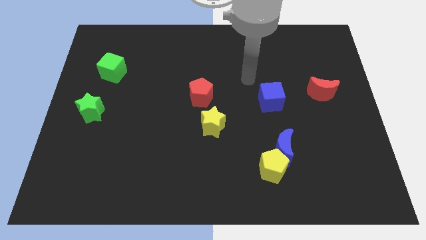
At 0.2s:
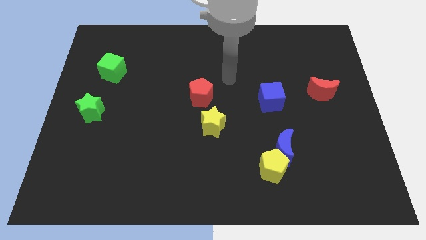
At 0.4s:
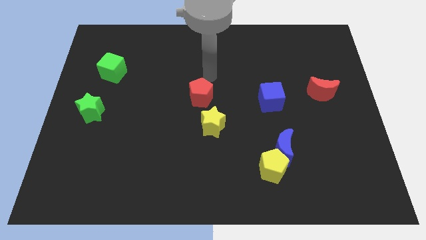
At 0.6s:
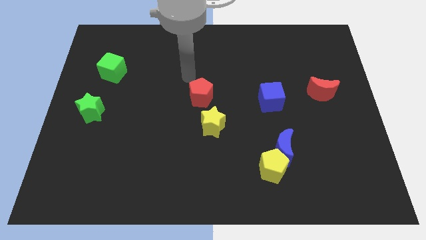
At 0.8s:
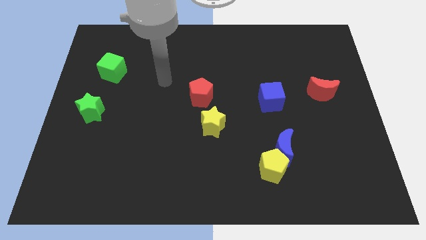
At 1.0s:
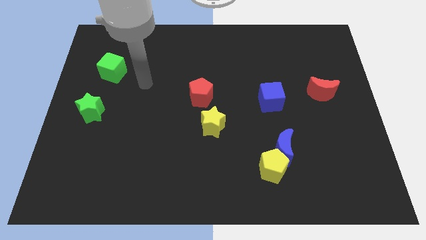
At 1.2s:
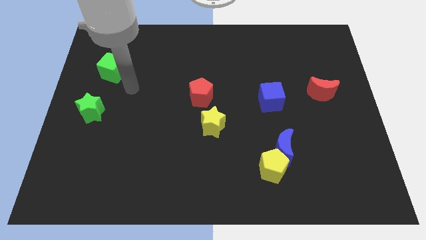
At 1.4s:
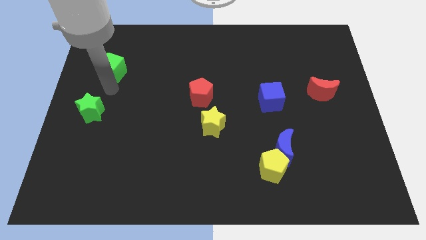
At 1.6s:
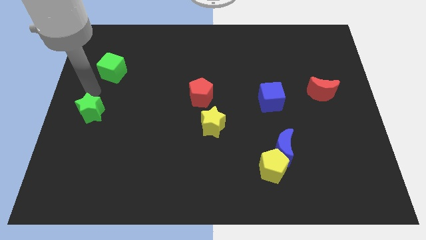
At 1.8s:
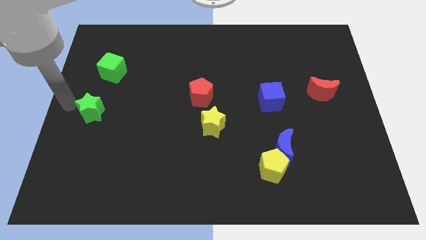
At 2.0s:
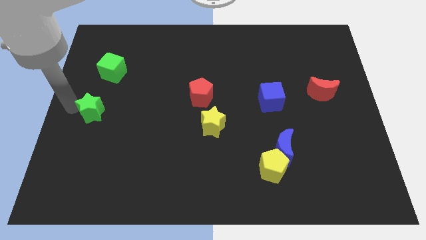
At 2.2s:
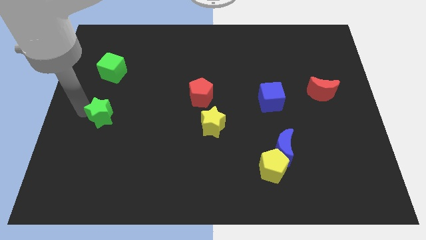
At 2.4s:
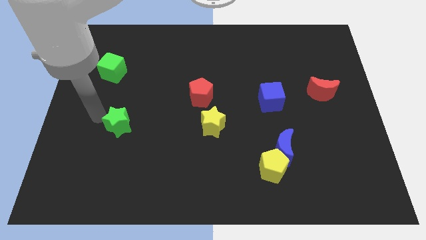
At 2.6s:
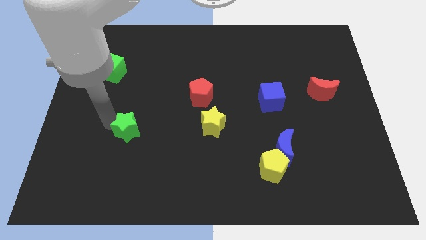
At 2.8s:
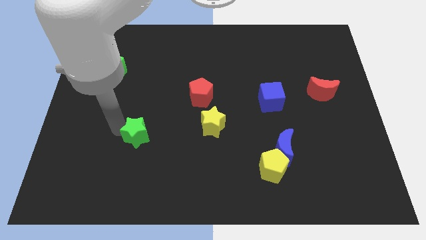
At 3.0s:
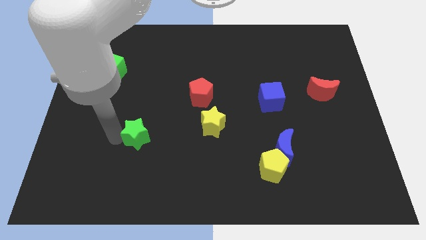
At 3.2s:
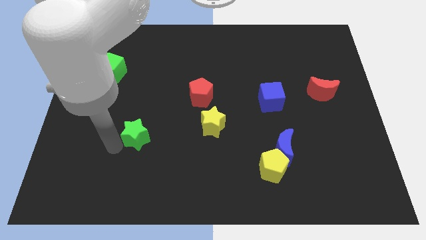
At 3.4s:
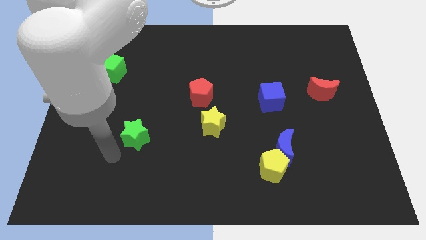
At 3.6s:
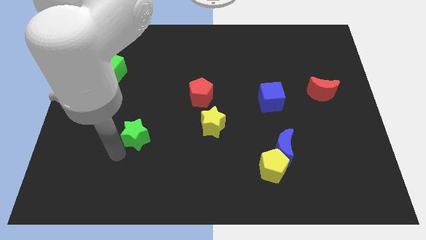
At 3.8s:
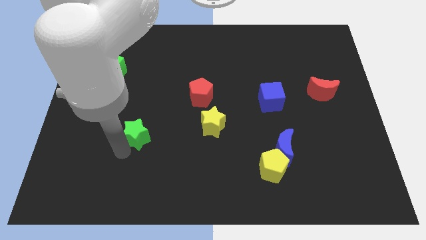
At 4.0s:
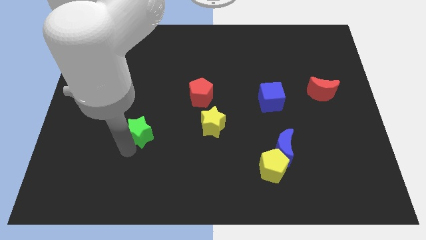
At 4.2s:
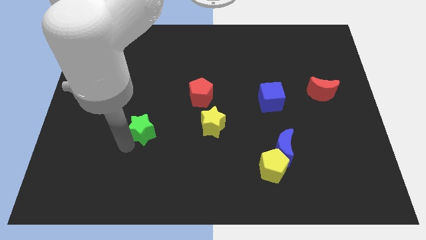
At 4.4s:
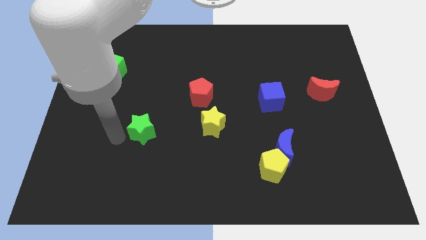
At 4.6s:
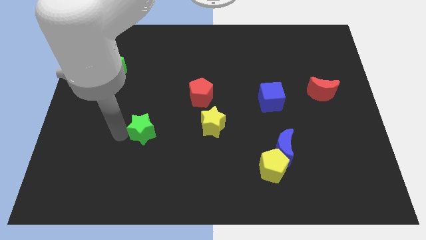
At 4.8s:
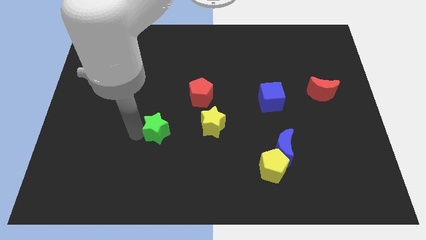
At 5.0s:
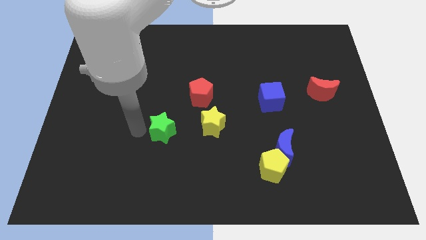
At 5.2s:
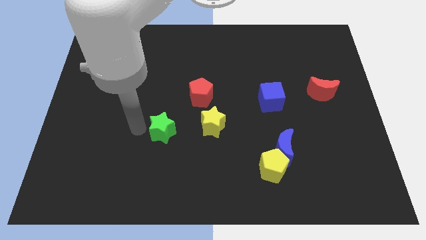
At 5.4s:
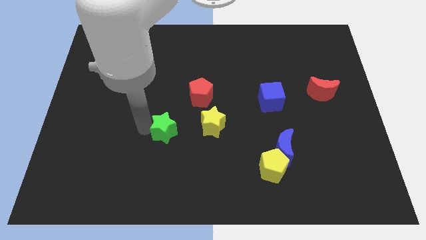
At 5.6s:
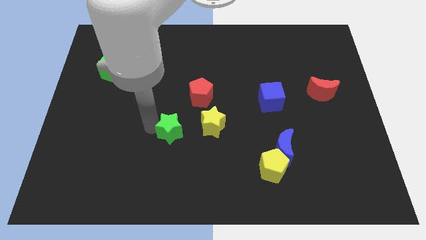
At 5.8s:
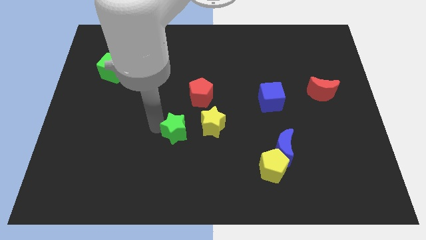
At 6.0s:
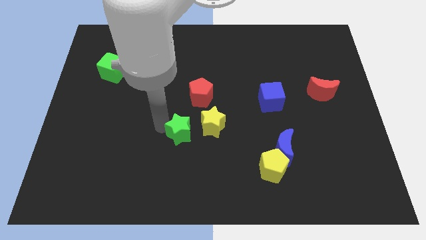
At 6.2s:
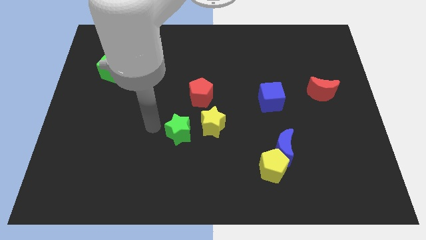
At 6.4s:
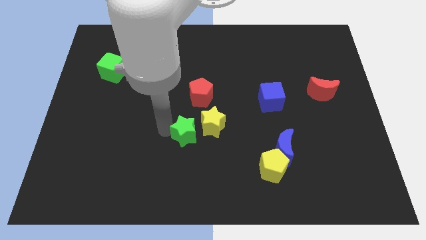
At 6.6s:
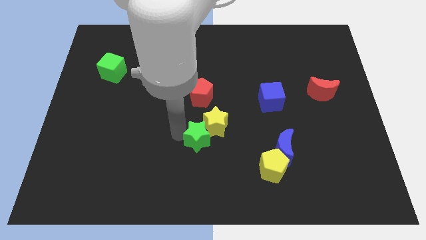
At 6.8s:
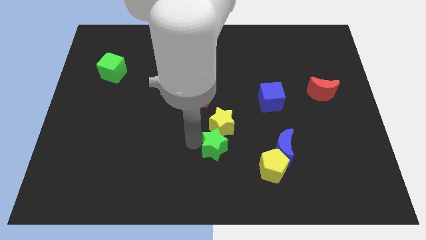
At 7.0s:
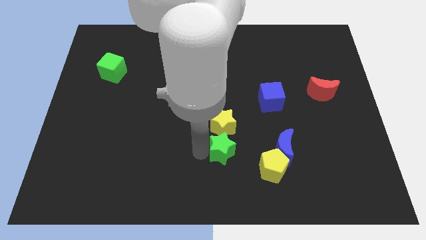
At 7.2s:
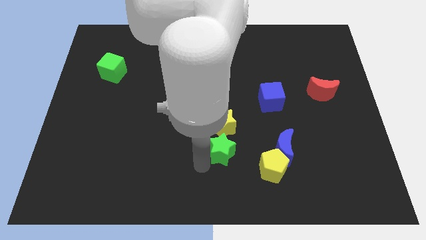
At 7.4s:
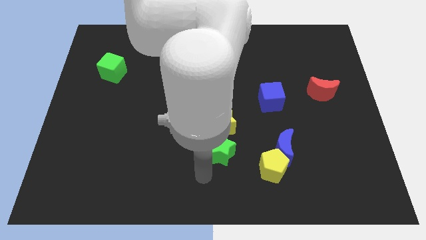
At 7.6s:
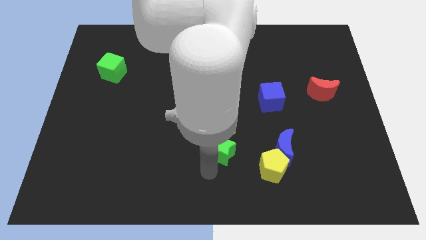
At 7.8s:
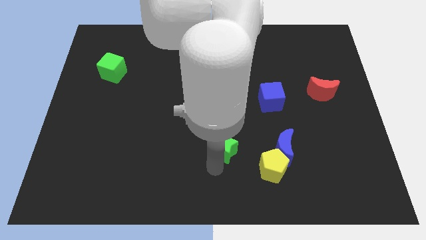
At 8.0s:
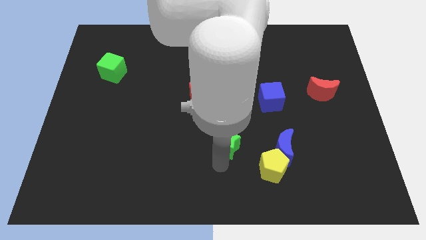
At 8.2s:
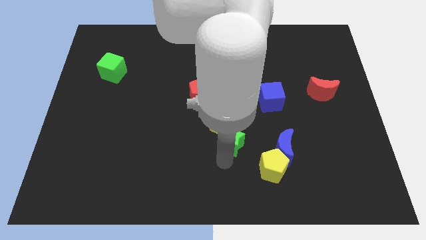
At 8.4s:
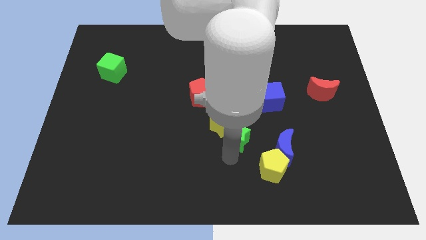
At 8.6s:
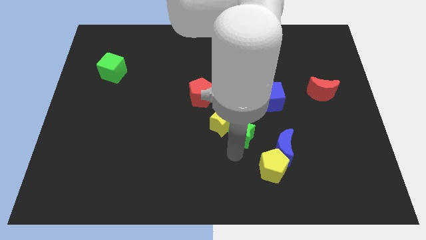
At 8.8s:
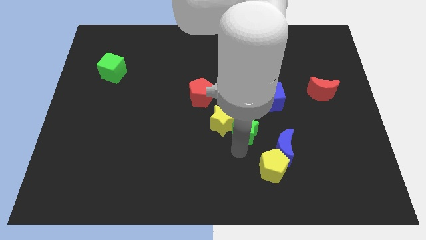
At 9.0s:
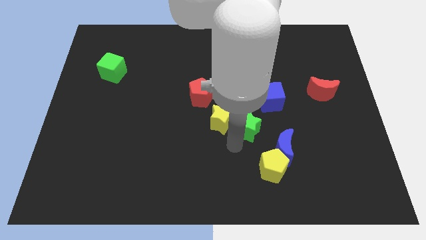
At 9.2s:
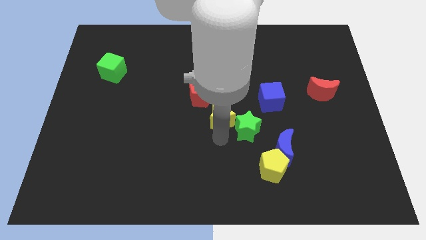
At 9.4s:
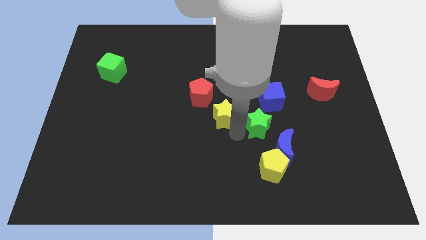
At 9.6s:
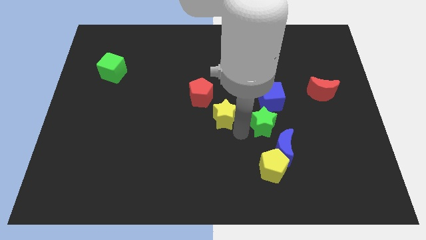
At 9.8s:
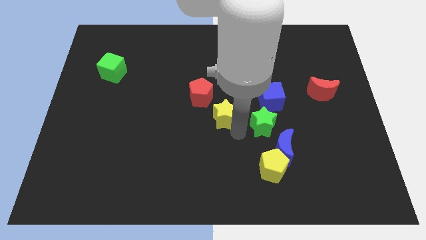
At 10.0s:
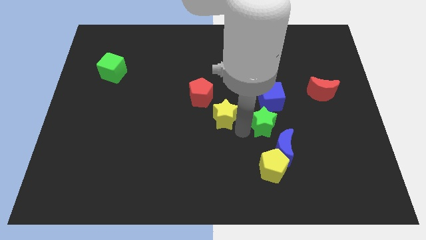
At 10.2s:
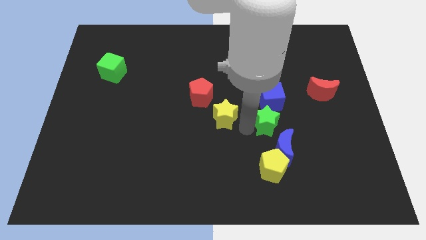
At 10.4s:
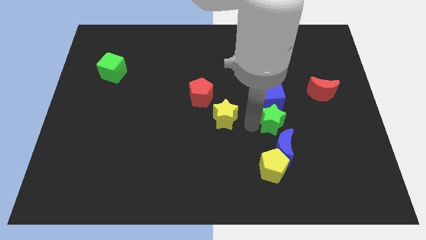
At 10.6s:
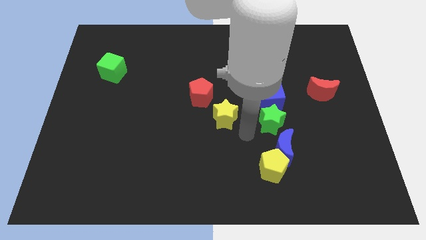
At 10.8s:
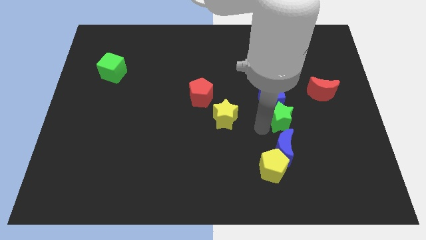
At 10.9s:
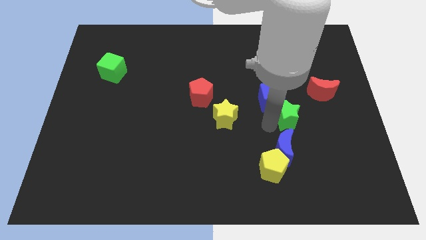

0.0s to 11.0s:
put the green star to the bottom left of the red moon

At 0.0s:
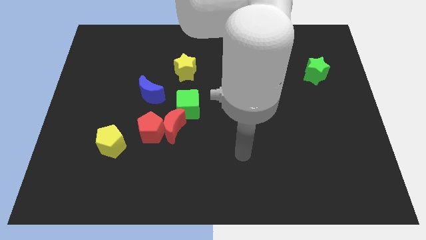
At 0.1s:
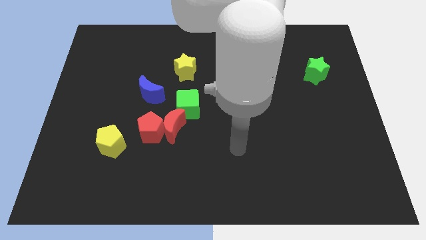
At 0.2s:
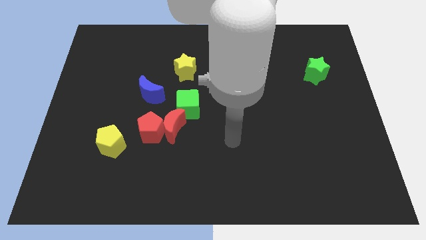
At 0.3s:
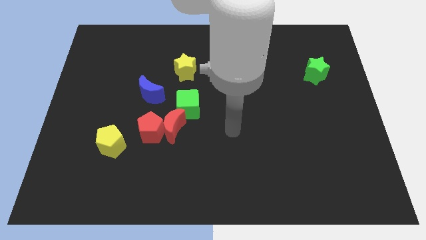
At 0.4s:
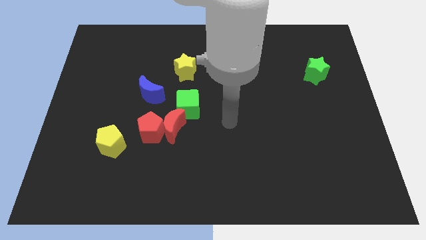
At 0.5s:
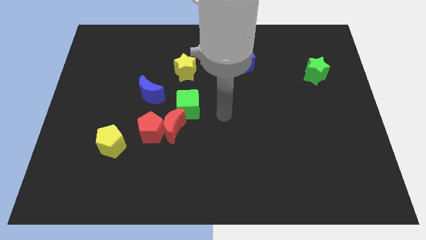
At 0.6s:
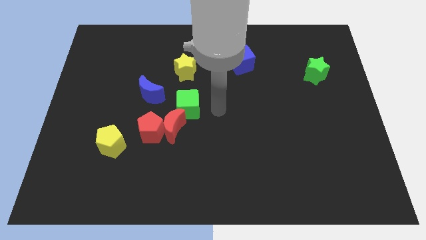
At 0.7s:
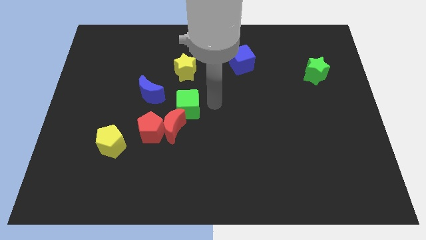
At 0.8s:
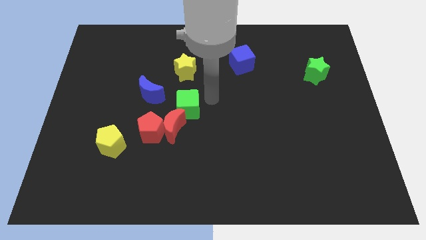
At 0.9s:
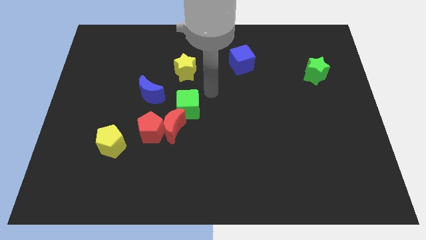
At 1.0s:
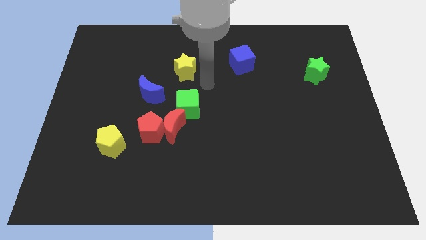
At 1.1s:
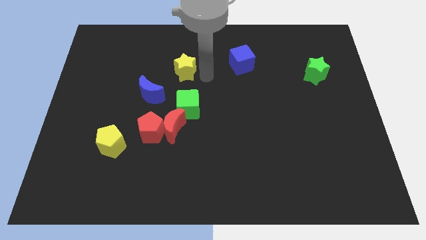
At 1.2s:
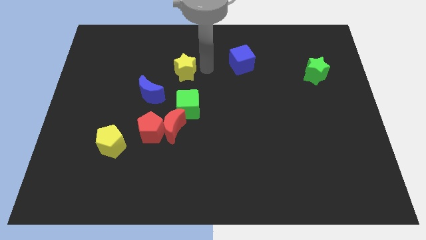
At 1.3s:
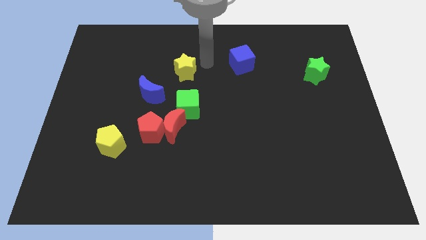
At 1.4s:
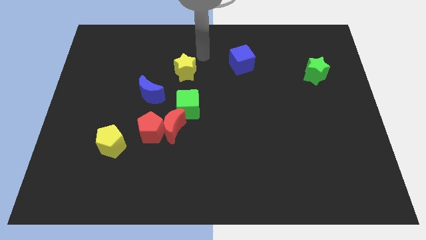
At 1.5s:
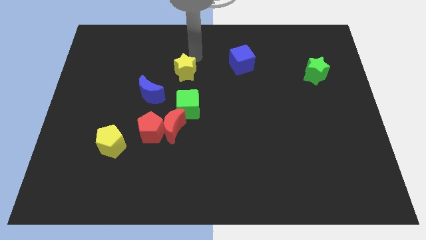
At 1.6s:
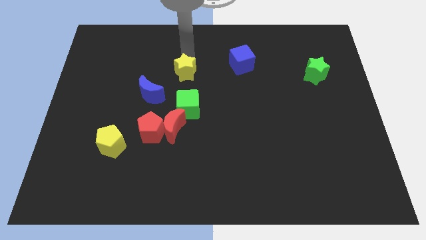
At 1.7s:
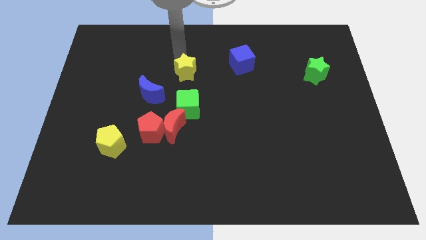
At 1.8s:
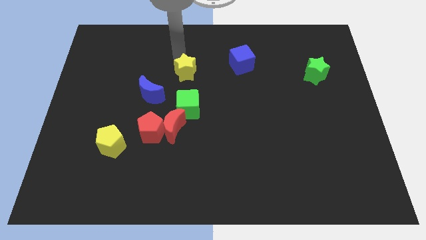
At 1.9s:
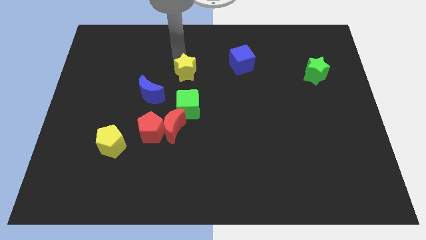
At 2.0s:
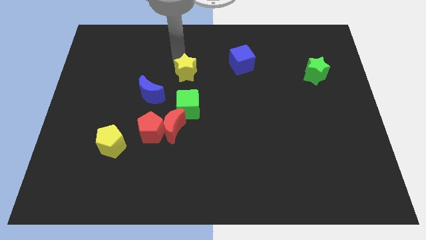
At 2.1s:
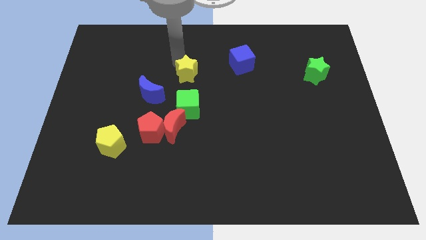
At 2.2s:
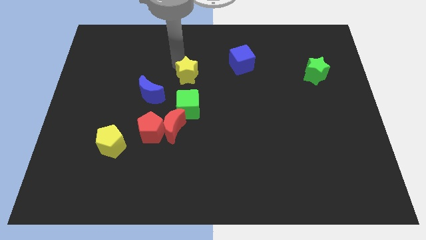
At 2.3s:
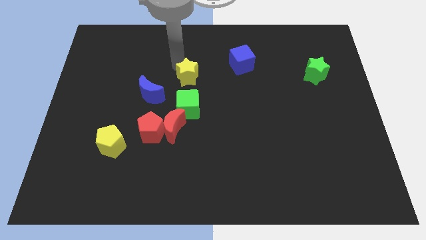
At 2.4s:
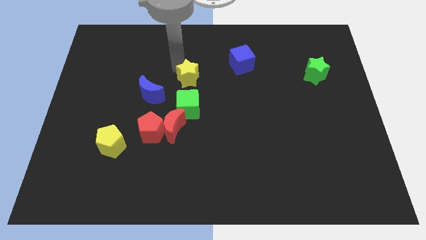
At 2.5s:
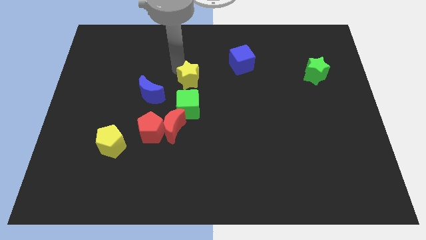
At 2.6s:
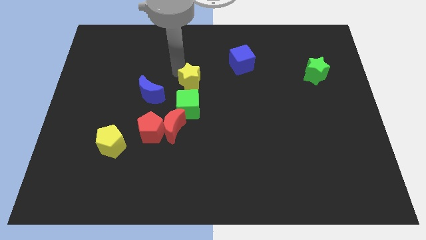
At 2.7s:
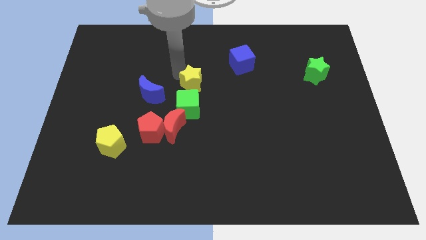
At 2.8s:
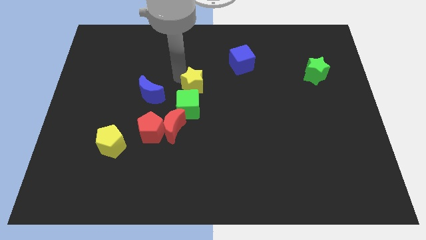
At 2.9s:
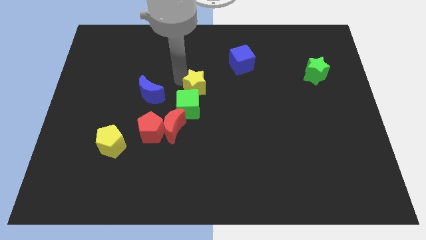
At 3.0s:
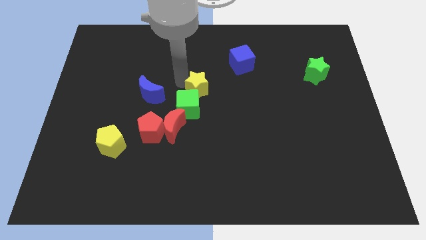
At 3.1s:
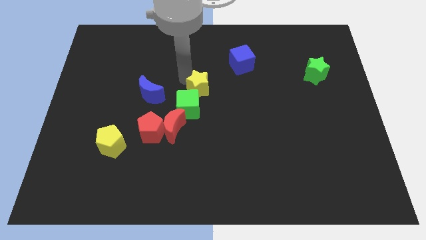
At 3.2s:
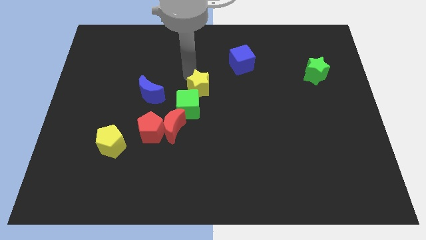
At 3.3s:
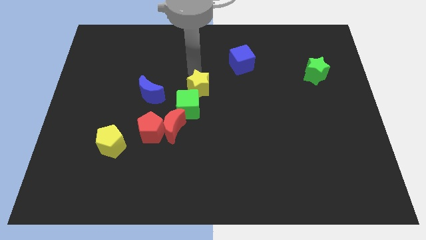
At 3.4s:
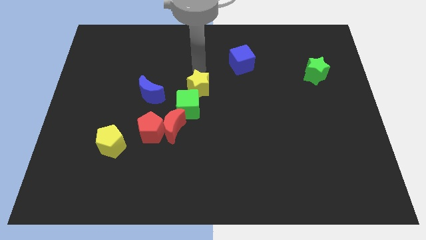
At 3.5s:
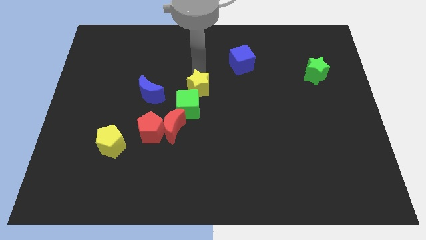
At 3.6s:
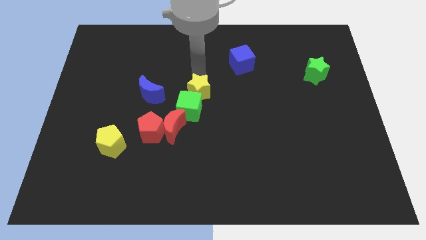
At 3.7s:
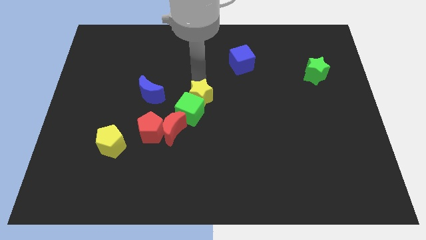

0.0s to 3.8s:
put the yellow star to the top right side of the red moon
